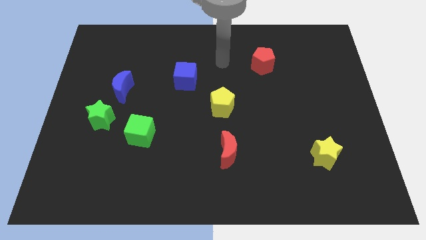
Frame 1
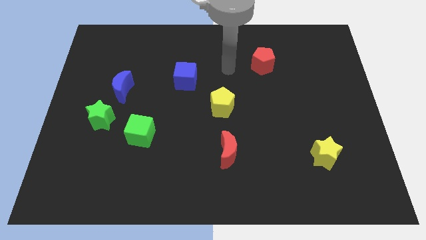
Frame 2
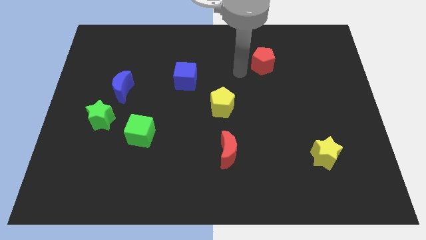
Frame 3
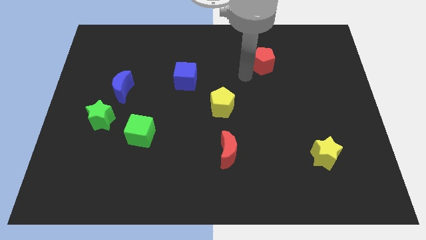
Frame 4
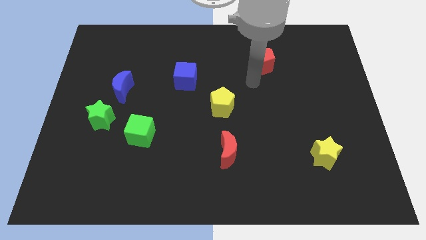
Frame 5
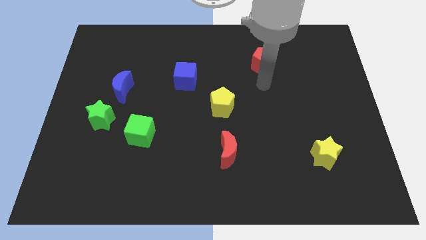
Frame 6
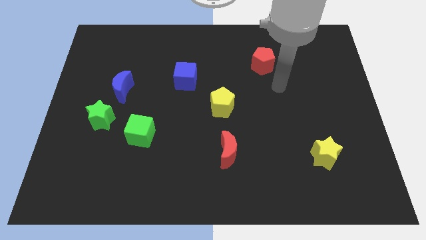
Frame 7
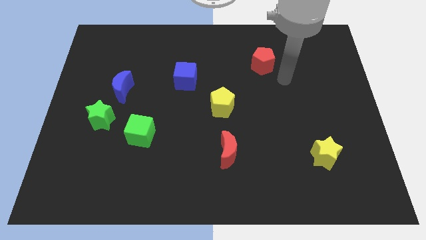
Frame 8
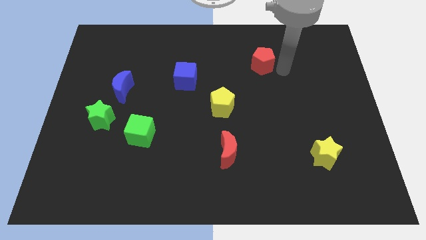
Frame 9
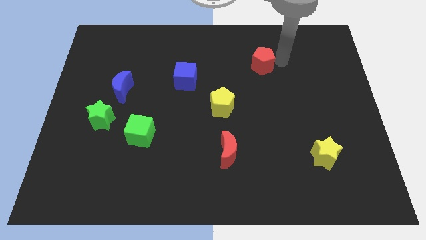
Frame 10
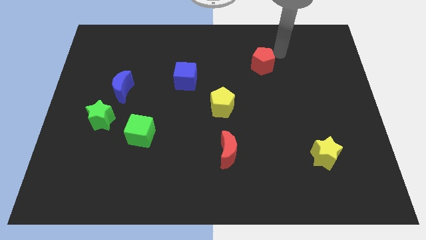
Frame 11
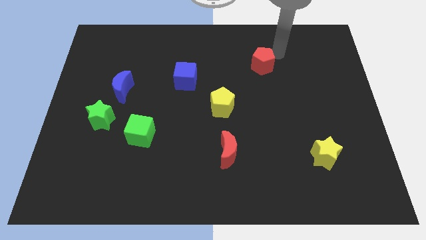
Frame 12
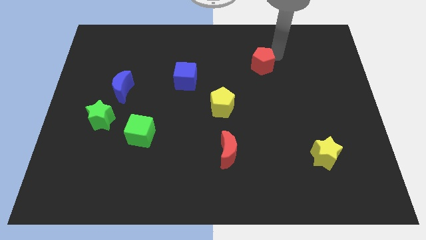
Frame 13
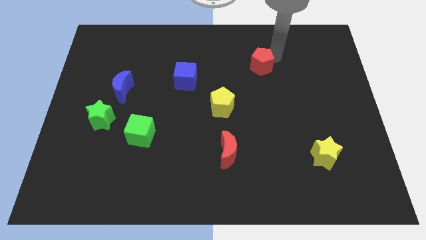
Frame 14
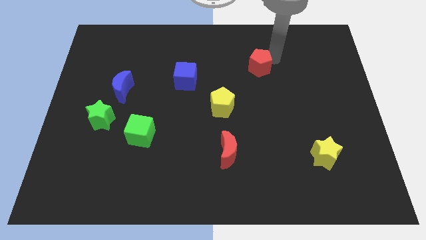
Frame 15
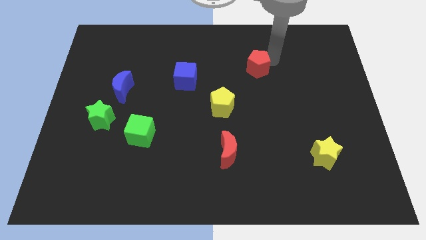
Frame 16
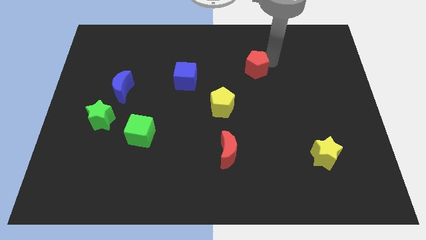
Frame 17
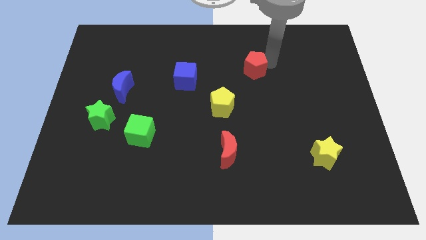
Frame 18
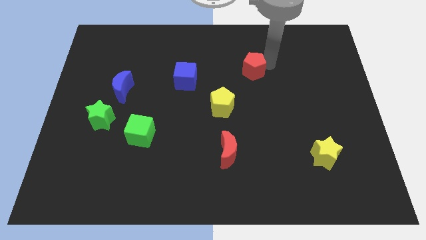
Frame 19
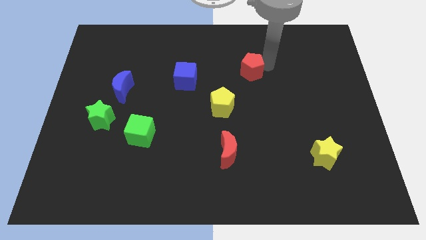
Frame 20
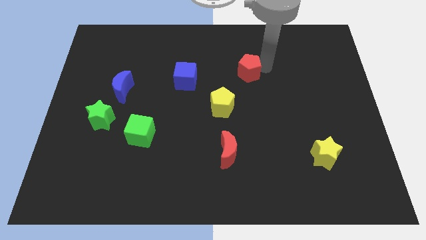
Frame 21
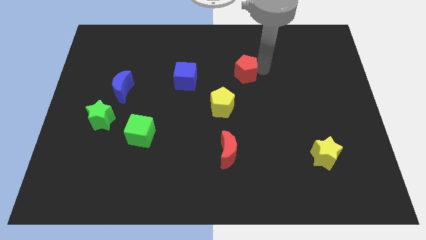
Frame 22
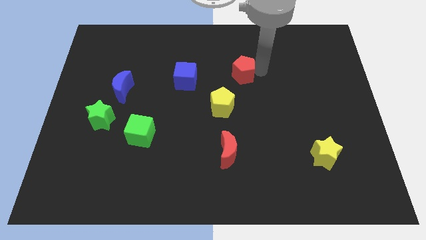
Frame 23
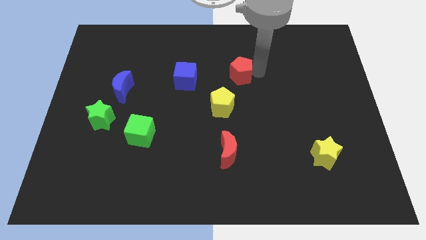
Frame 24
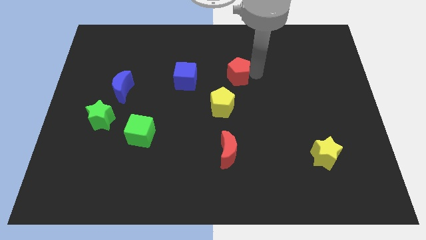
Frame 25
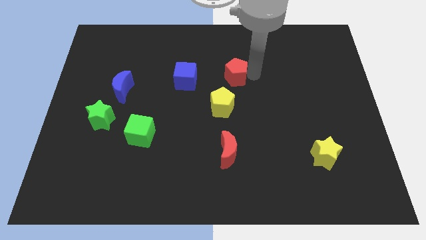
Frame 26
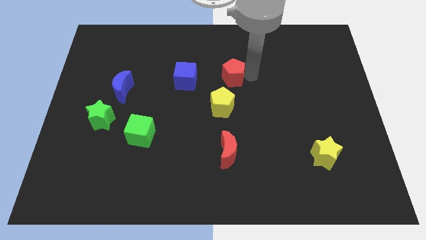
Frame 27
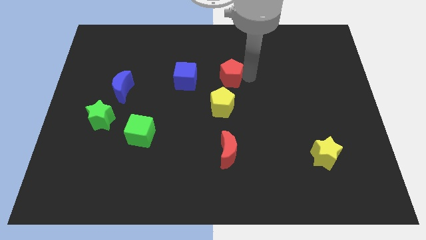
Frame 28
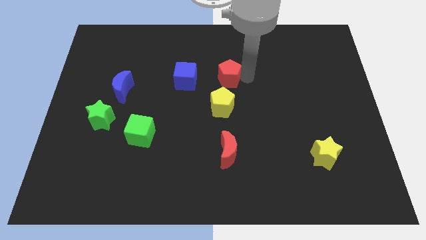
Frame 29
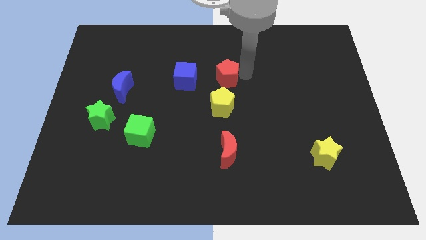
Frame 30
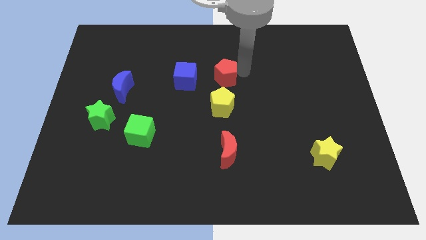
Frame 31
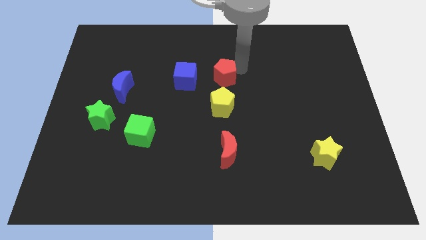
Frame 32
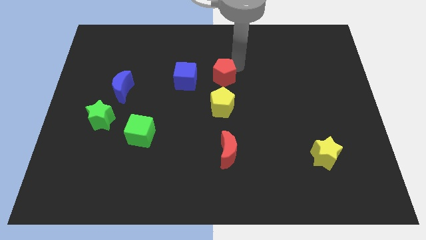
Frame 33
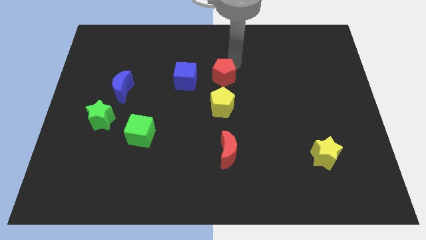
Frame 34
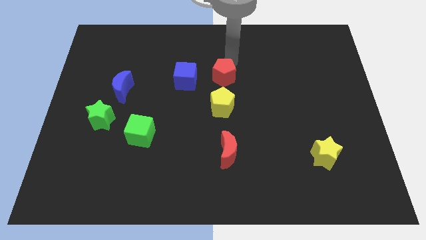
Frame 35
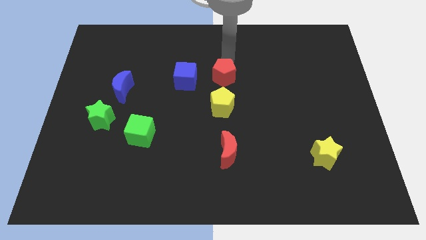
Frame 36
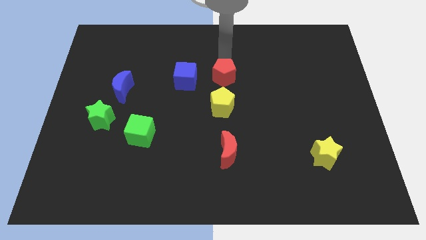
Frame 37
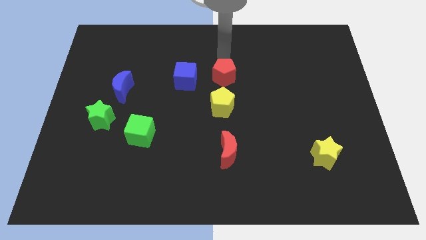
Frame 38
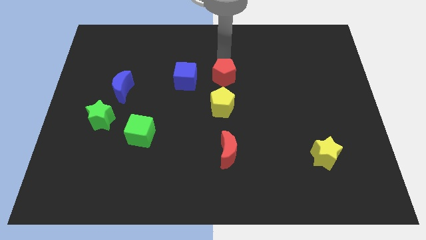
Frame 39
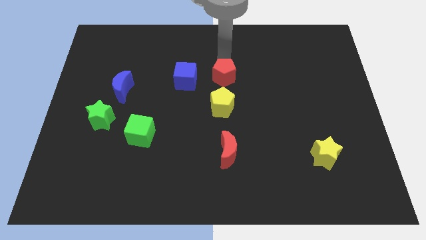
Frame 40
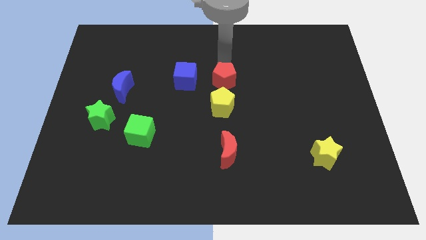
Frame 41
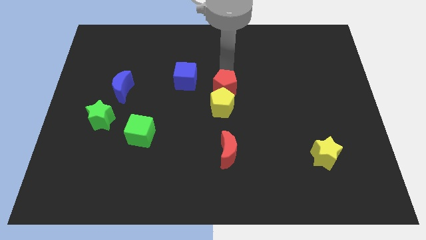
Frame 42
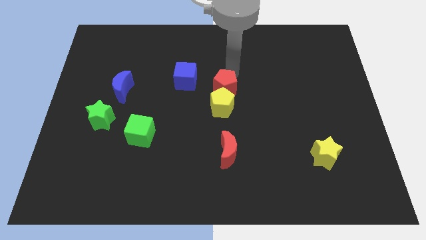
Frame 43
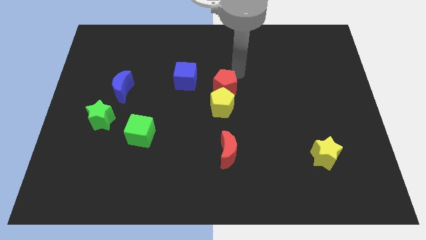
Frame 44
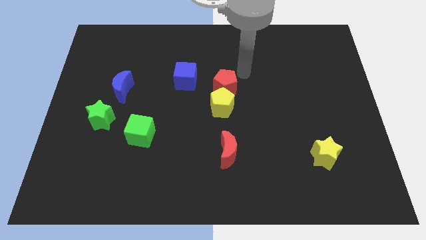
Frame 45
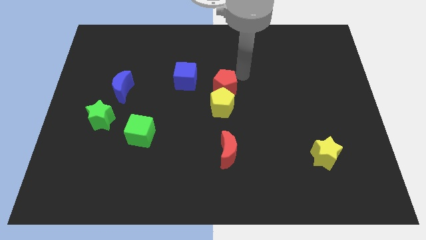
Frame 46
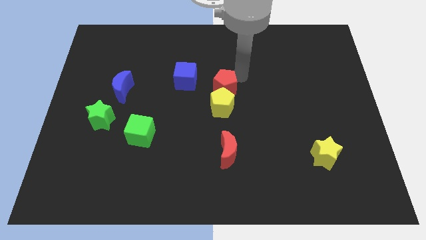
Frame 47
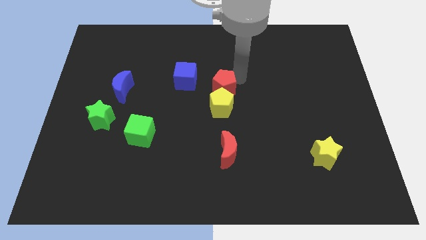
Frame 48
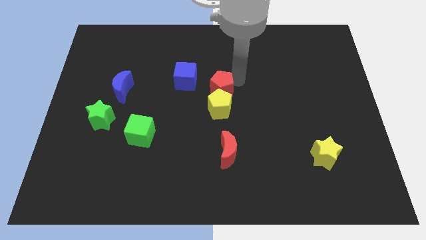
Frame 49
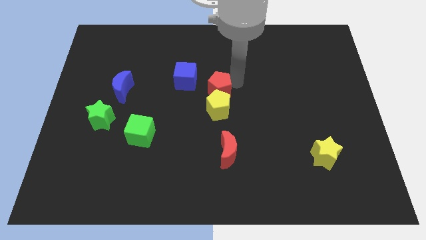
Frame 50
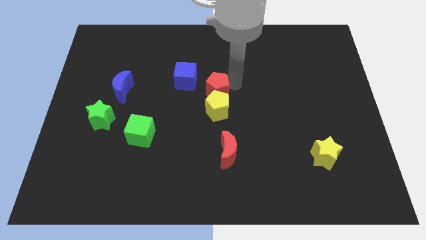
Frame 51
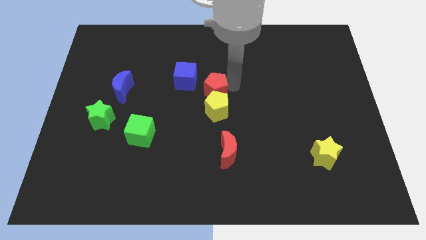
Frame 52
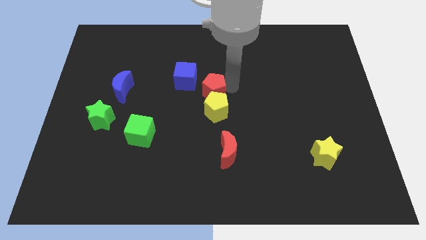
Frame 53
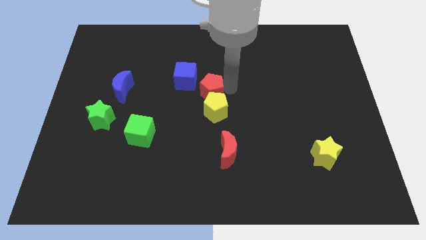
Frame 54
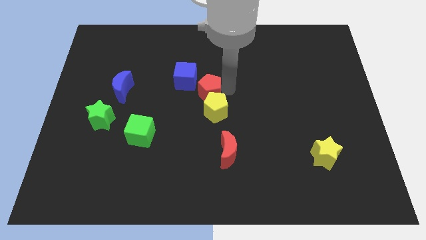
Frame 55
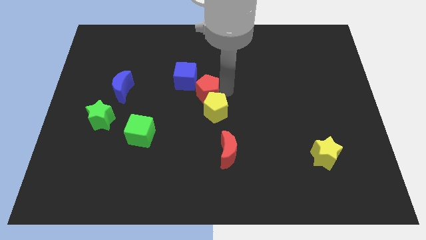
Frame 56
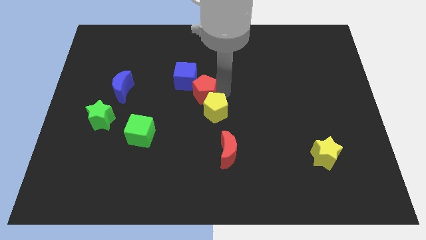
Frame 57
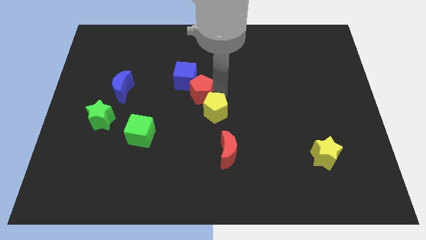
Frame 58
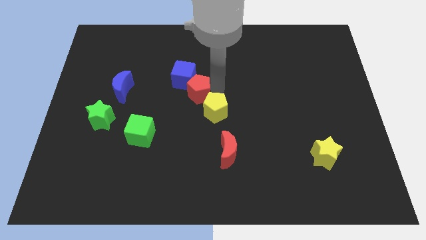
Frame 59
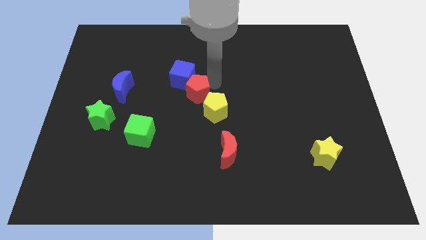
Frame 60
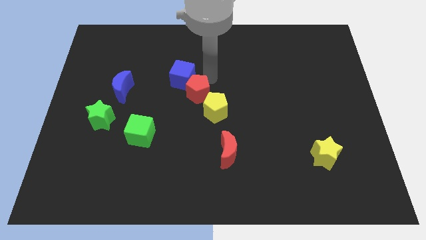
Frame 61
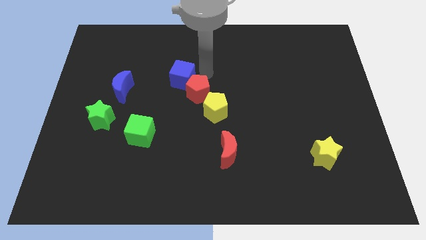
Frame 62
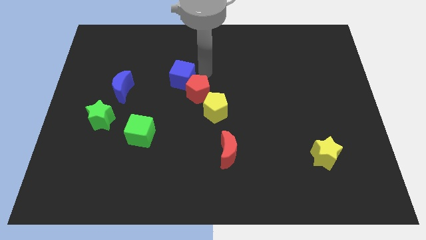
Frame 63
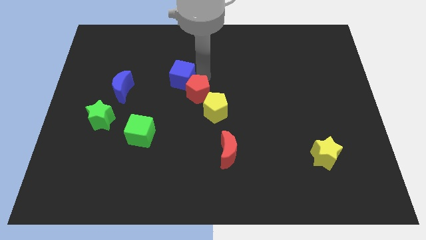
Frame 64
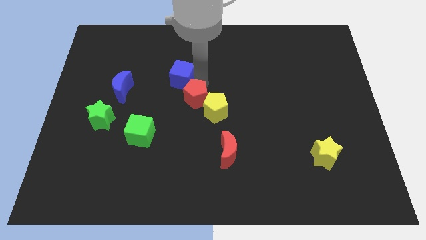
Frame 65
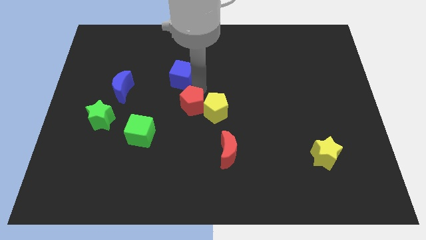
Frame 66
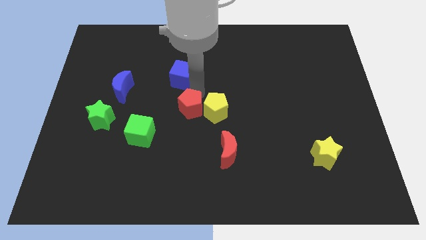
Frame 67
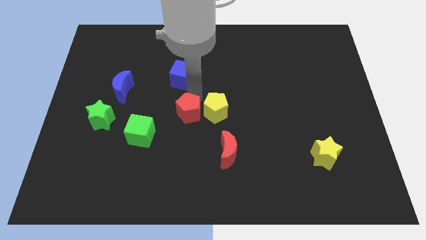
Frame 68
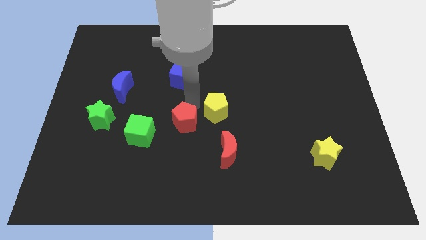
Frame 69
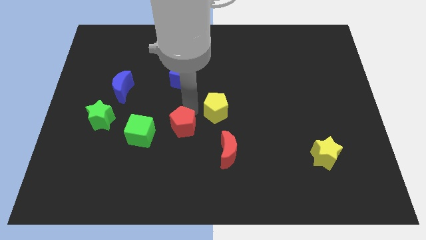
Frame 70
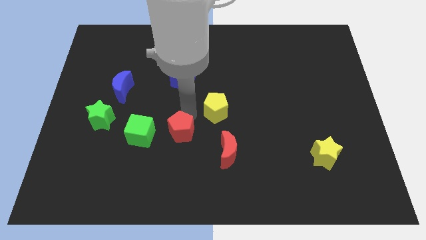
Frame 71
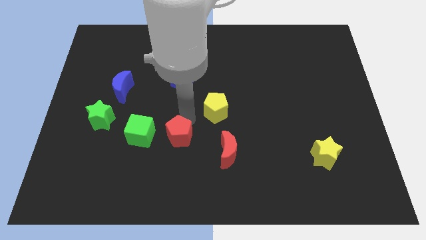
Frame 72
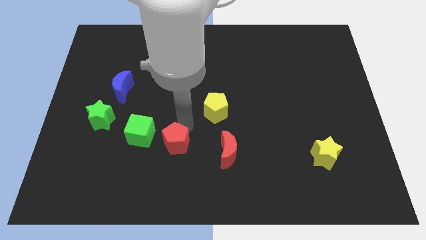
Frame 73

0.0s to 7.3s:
slide the red pentagon to the bottom right of the green cube

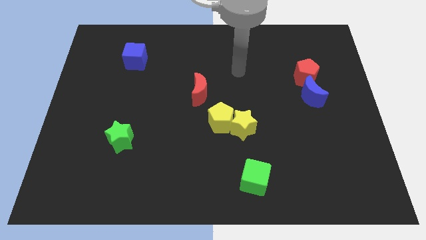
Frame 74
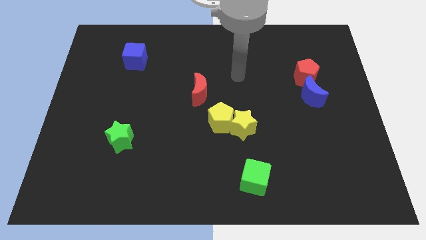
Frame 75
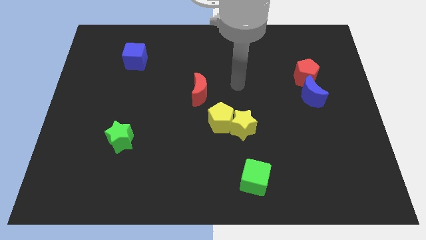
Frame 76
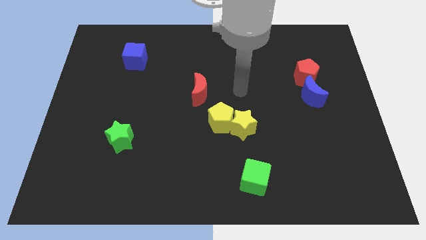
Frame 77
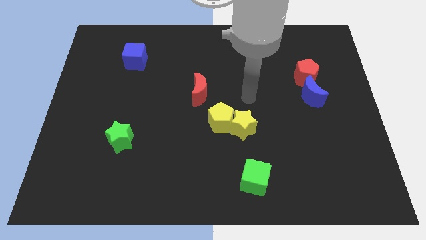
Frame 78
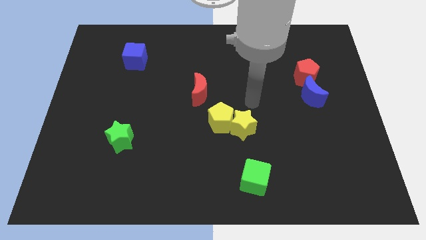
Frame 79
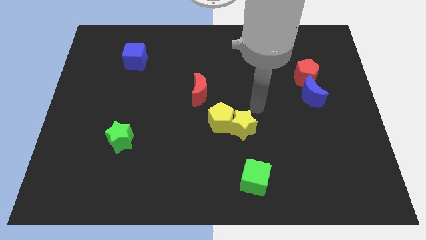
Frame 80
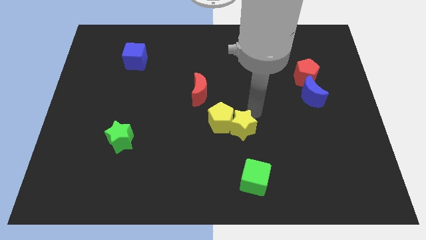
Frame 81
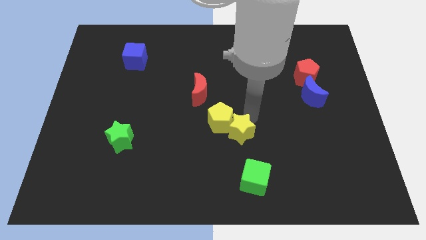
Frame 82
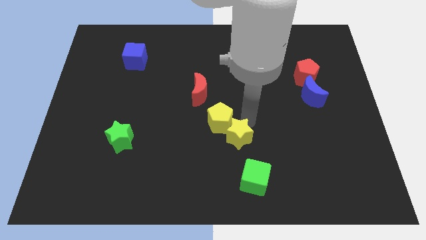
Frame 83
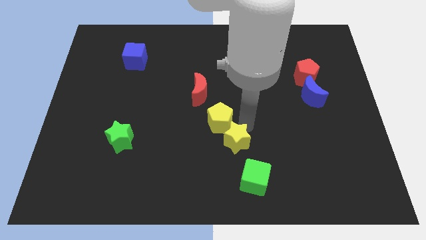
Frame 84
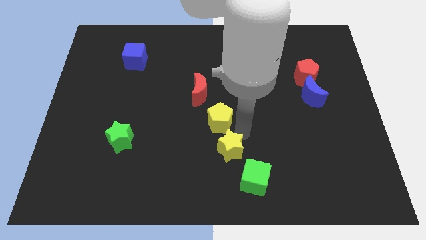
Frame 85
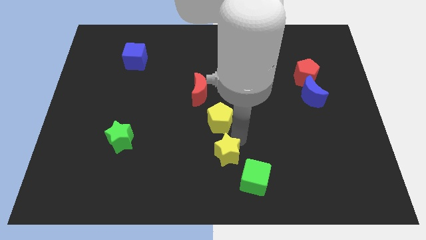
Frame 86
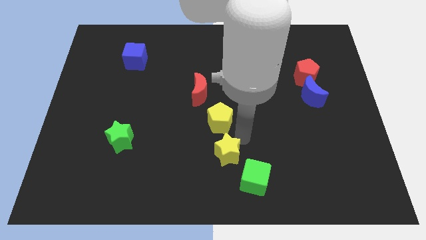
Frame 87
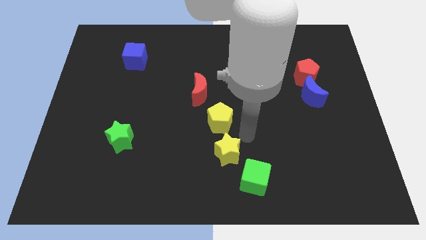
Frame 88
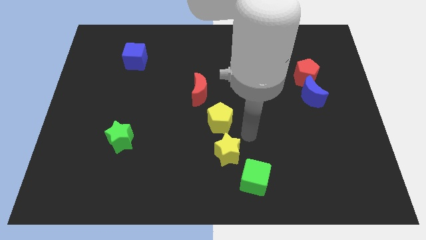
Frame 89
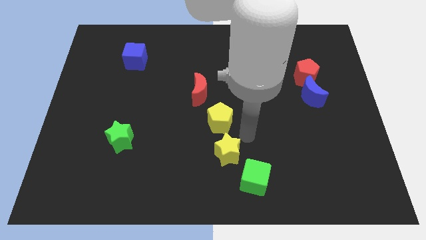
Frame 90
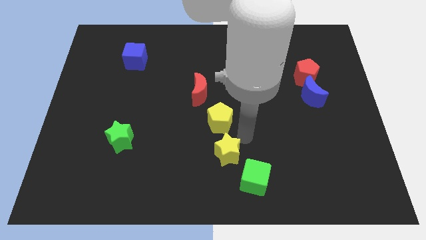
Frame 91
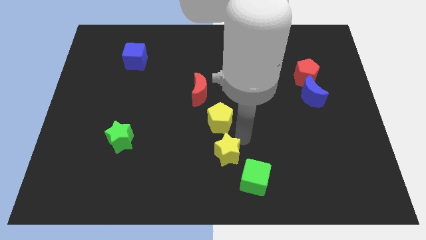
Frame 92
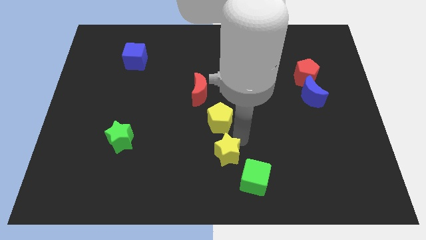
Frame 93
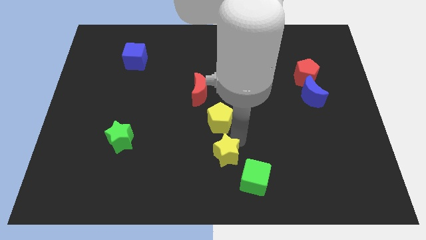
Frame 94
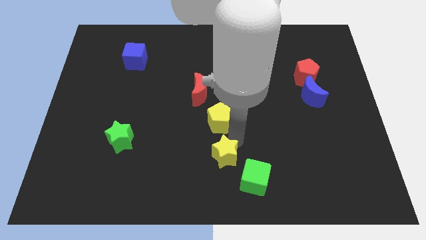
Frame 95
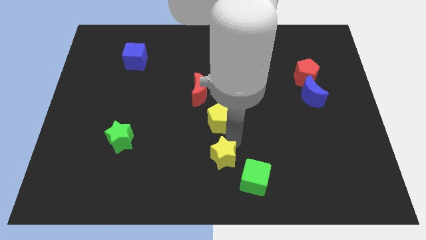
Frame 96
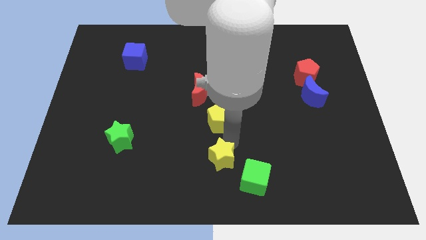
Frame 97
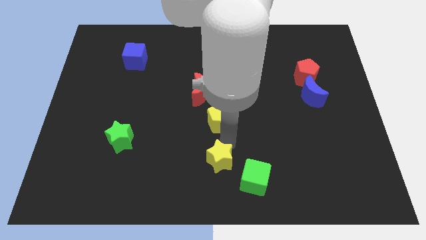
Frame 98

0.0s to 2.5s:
move the yellow star just left of the green cube
